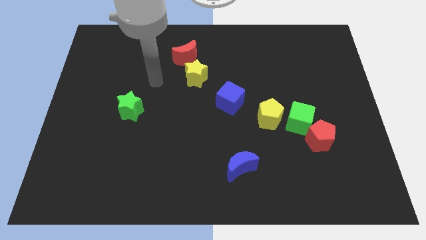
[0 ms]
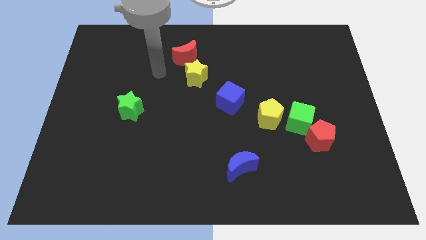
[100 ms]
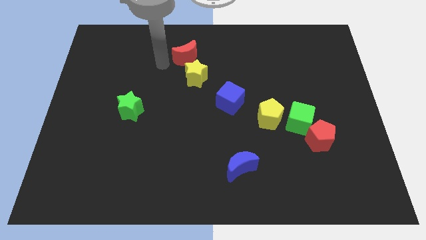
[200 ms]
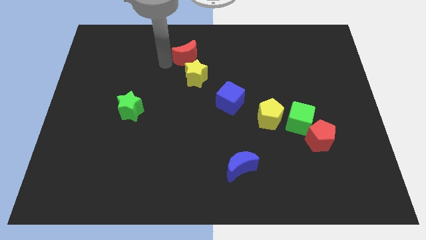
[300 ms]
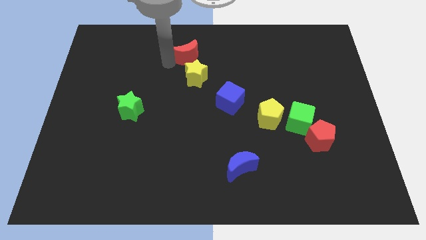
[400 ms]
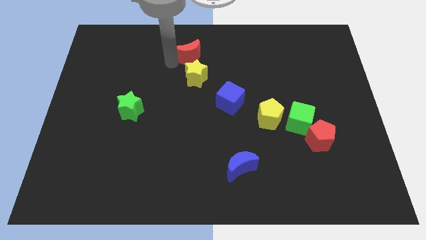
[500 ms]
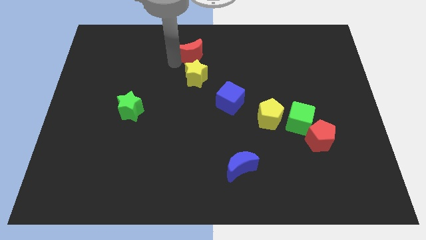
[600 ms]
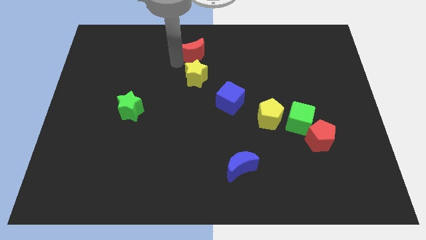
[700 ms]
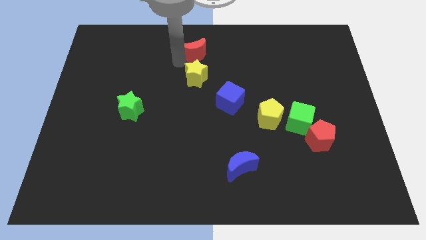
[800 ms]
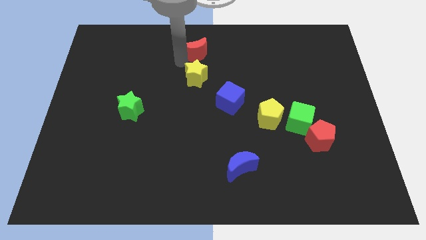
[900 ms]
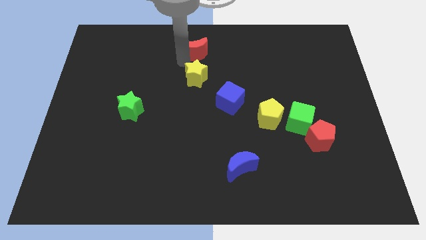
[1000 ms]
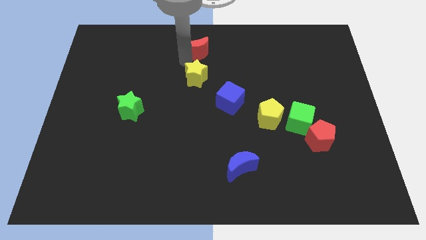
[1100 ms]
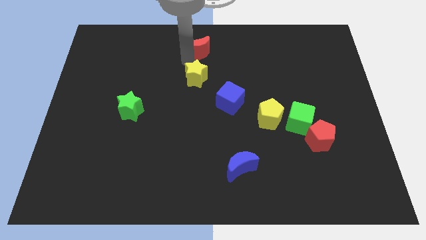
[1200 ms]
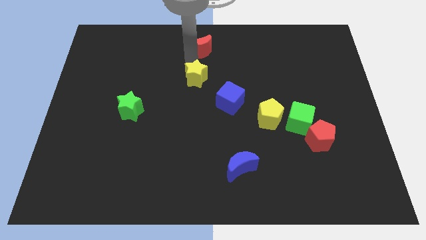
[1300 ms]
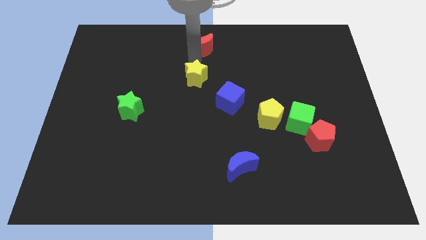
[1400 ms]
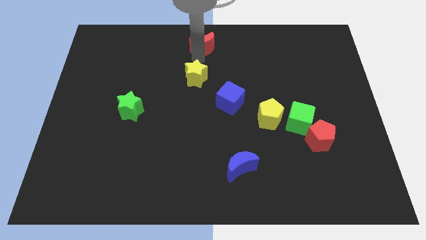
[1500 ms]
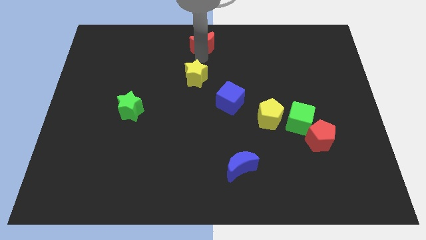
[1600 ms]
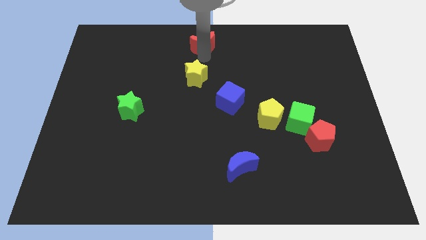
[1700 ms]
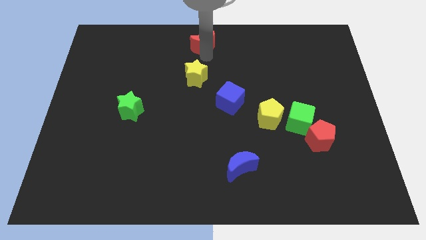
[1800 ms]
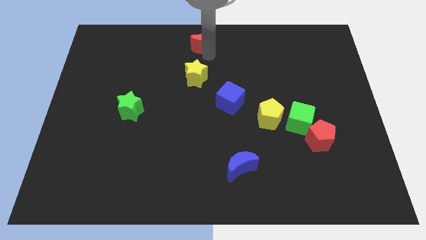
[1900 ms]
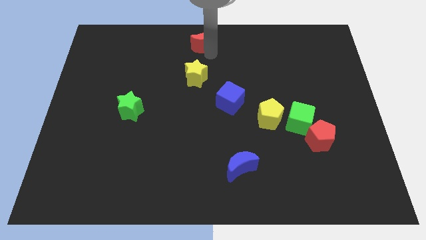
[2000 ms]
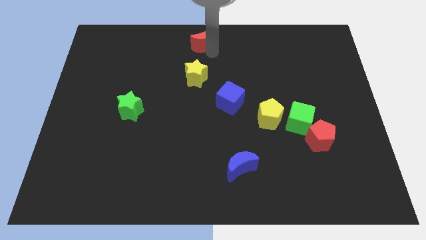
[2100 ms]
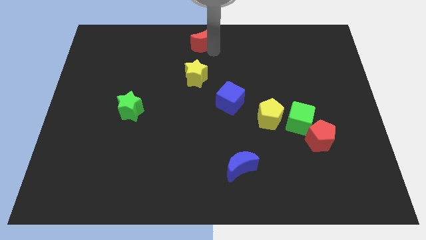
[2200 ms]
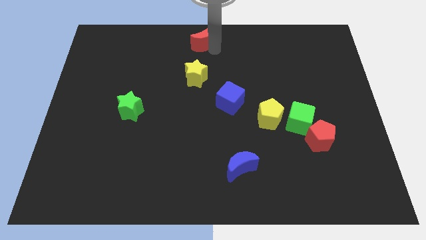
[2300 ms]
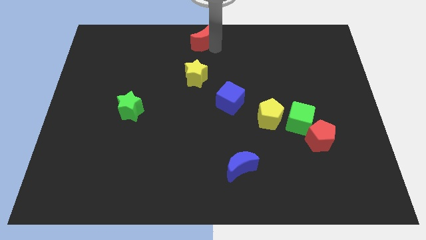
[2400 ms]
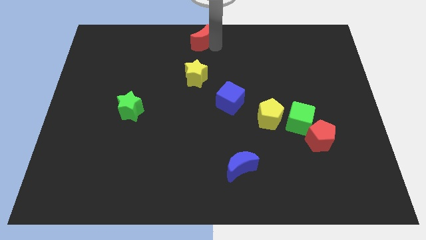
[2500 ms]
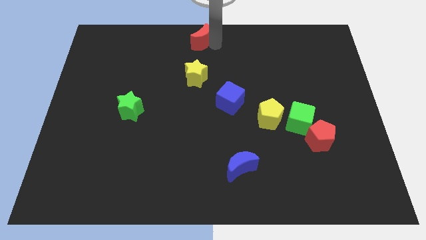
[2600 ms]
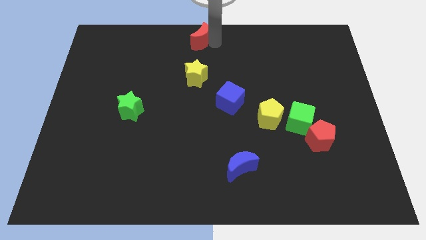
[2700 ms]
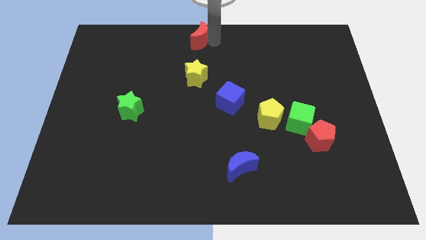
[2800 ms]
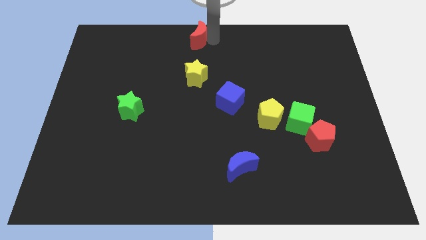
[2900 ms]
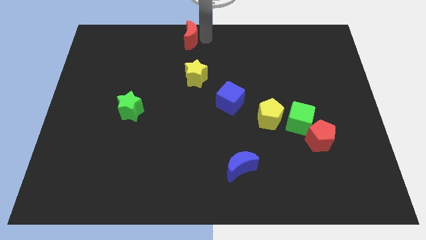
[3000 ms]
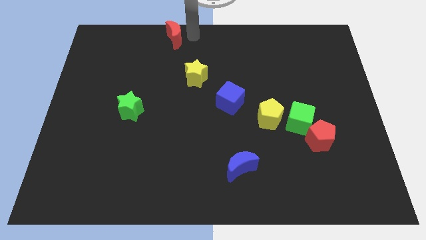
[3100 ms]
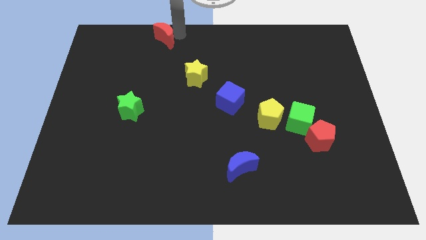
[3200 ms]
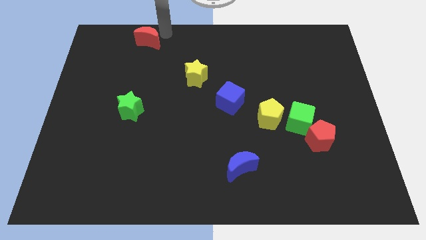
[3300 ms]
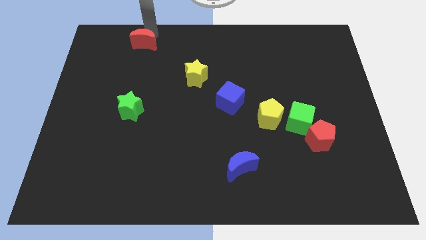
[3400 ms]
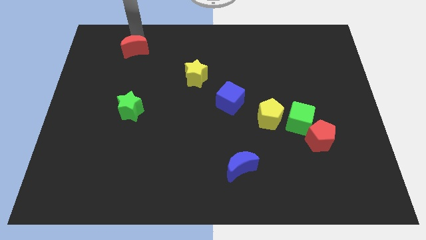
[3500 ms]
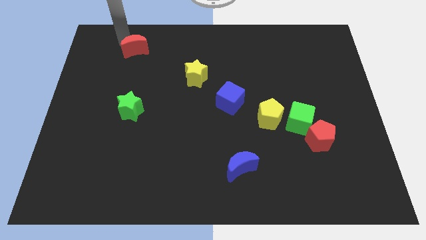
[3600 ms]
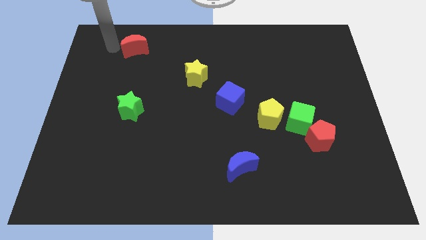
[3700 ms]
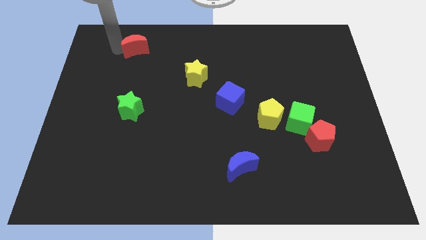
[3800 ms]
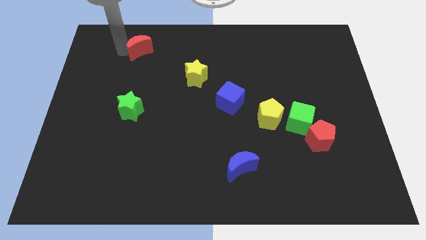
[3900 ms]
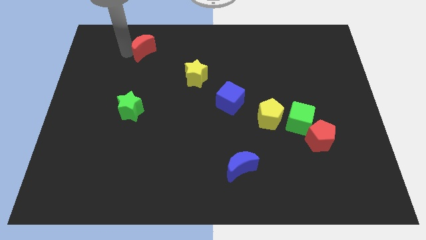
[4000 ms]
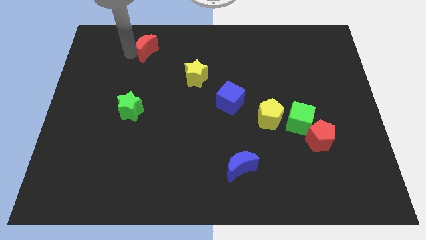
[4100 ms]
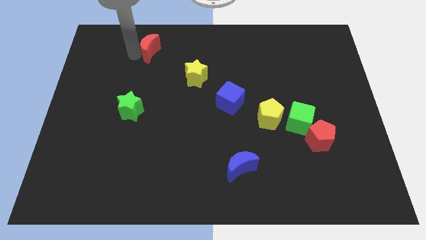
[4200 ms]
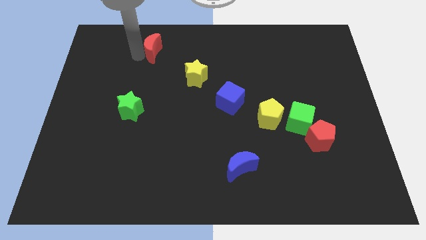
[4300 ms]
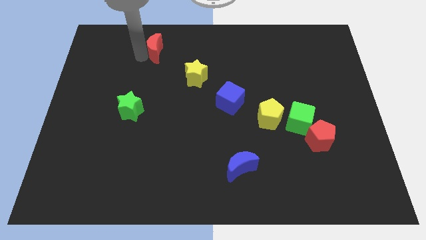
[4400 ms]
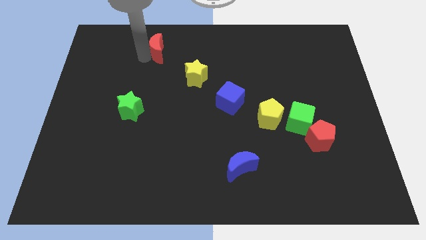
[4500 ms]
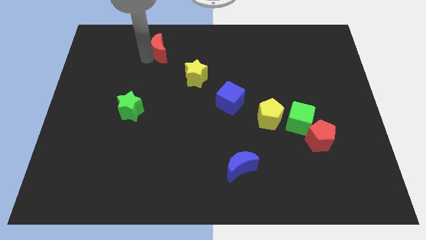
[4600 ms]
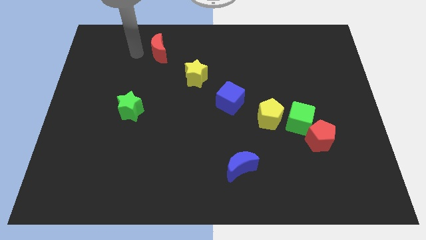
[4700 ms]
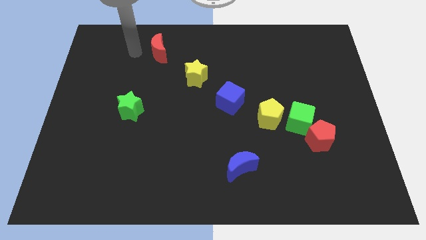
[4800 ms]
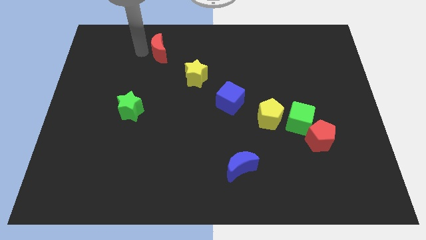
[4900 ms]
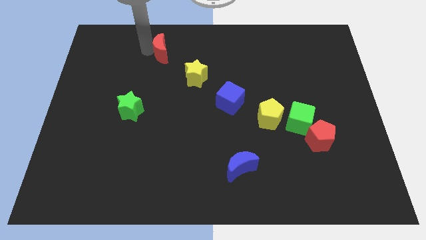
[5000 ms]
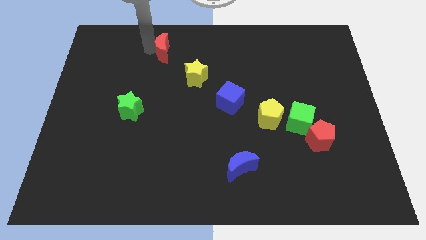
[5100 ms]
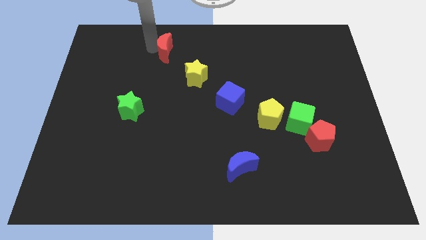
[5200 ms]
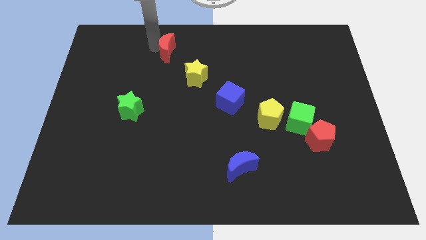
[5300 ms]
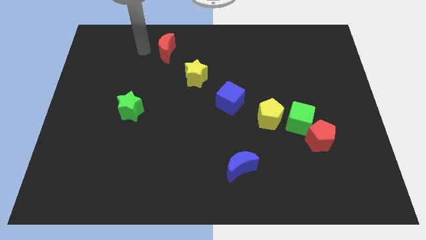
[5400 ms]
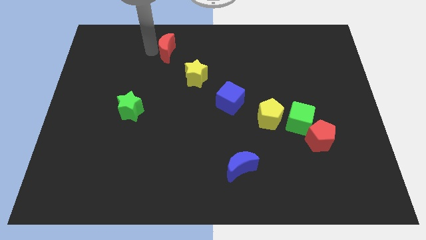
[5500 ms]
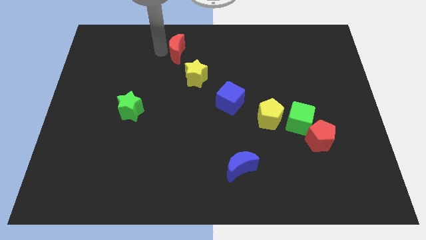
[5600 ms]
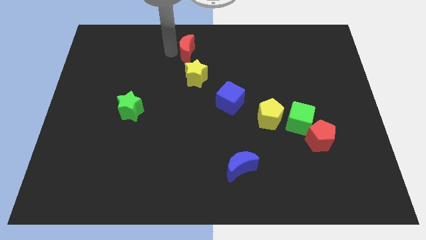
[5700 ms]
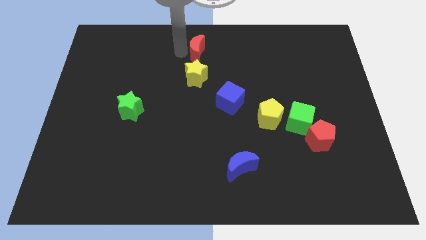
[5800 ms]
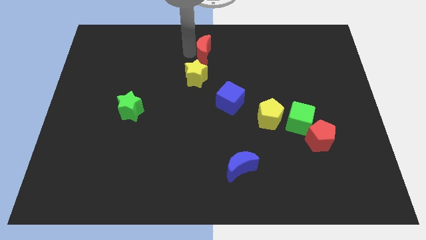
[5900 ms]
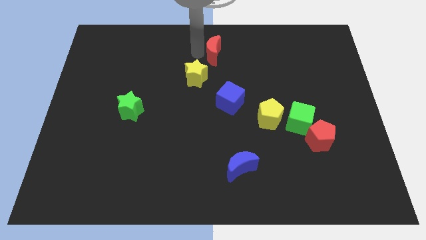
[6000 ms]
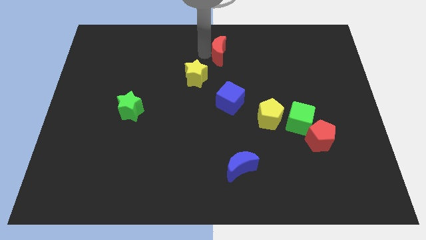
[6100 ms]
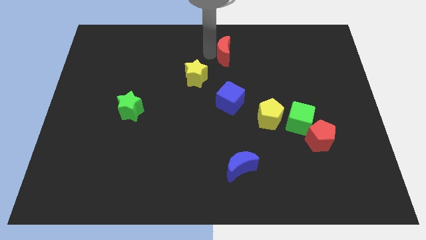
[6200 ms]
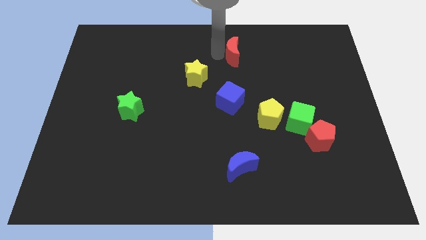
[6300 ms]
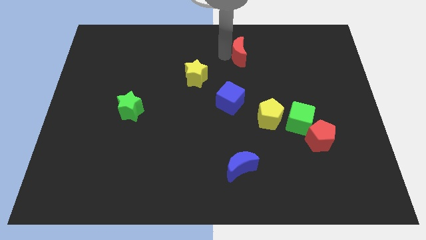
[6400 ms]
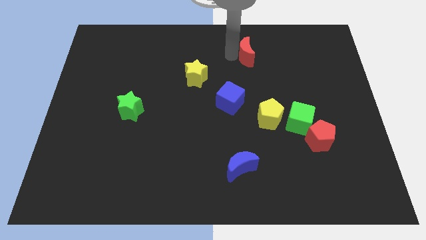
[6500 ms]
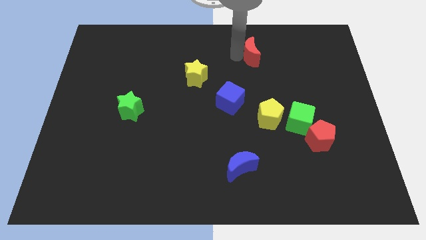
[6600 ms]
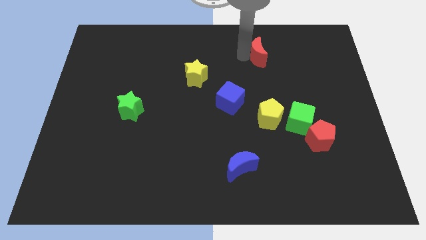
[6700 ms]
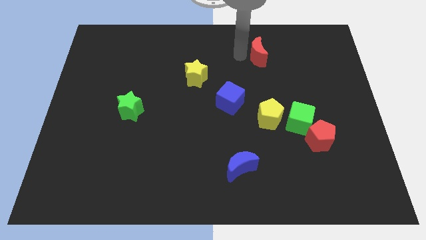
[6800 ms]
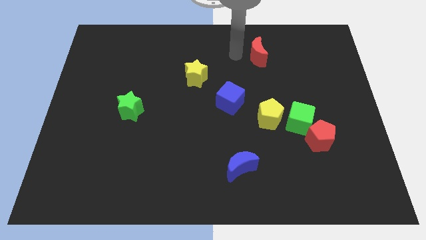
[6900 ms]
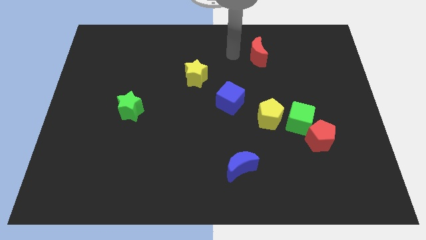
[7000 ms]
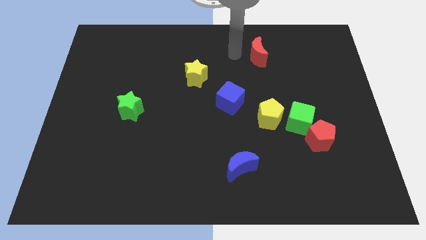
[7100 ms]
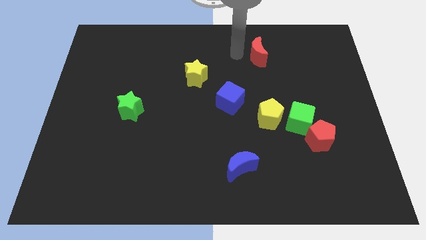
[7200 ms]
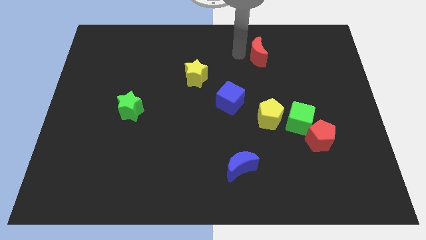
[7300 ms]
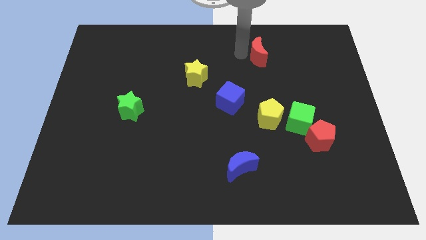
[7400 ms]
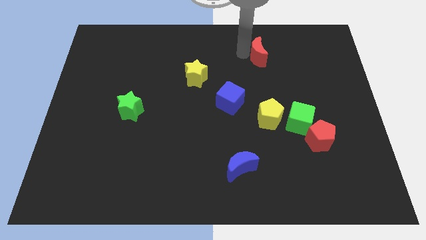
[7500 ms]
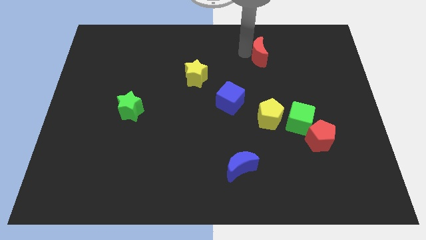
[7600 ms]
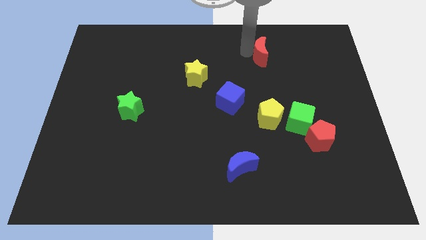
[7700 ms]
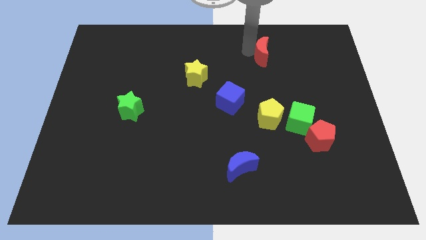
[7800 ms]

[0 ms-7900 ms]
push the red moon to the right

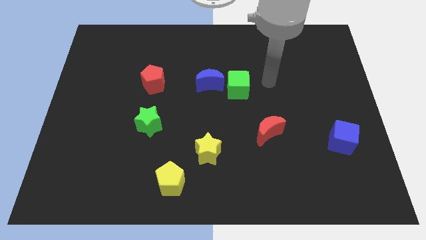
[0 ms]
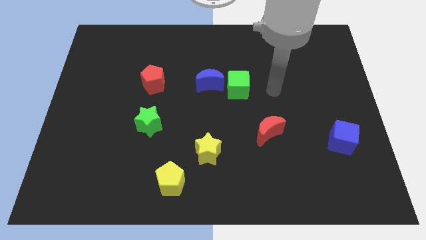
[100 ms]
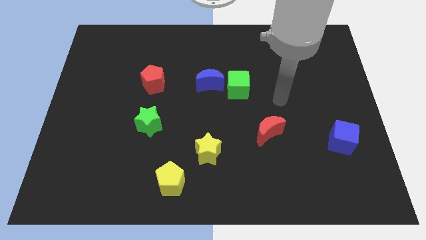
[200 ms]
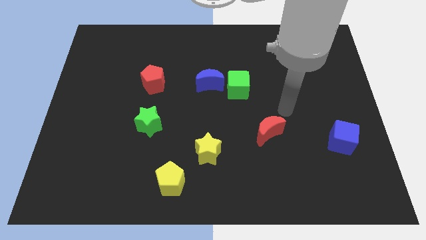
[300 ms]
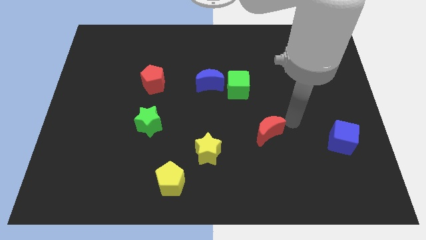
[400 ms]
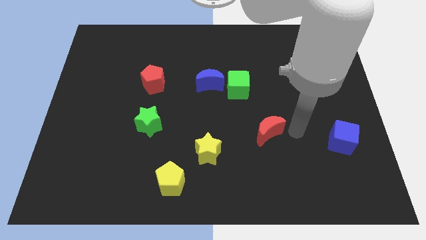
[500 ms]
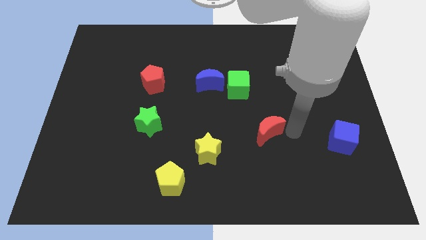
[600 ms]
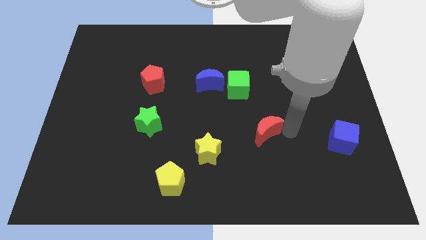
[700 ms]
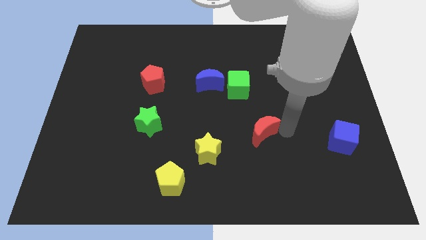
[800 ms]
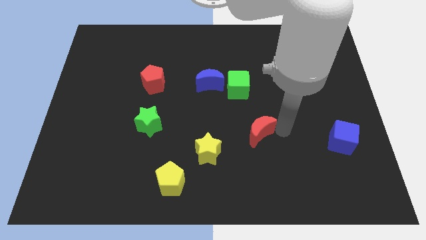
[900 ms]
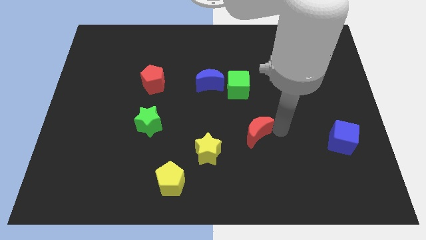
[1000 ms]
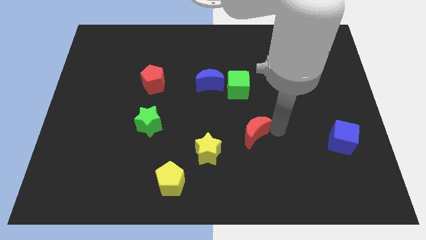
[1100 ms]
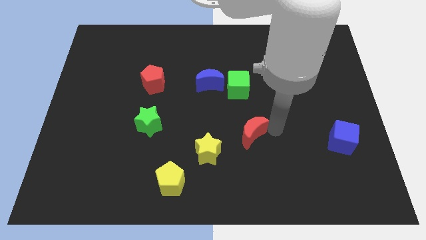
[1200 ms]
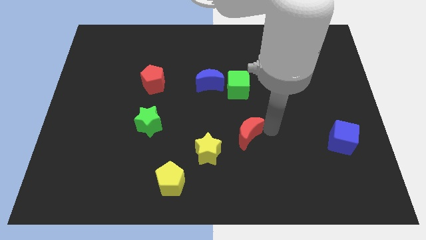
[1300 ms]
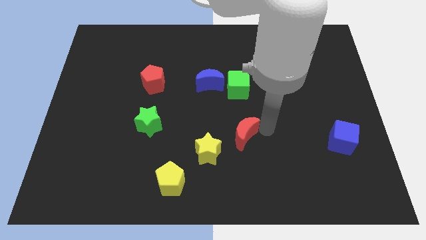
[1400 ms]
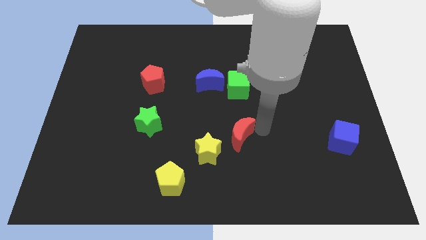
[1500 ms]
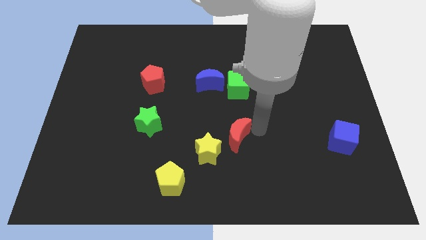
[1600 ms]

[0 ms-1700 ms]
move the red moon to the left a little bit
